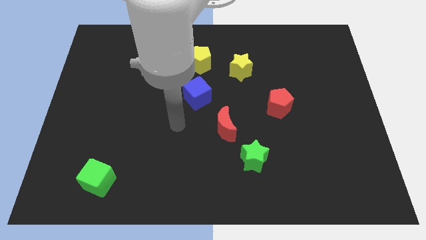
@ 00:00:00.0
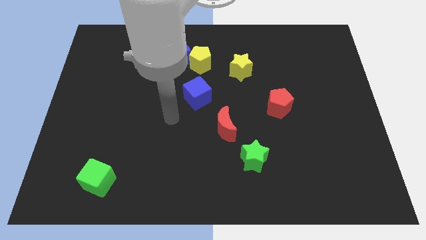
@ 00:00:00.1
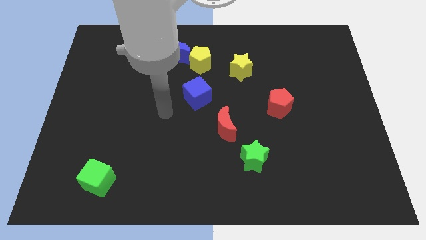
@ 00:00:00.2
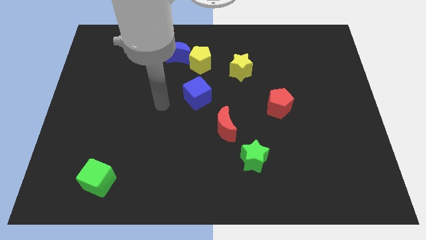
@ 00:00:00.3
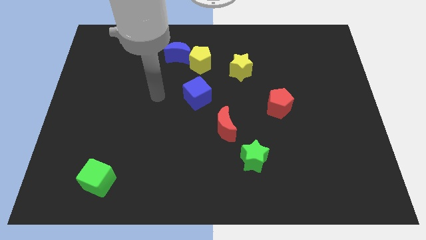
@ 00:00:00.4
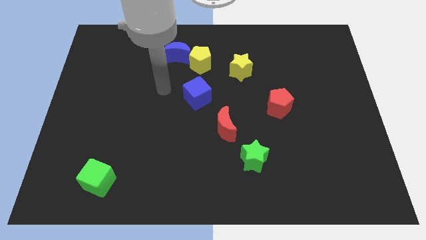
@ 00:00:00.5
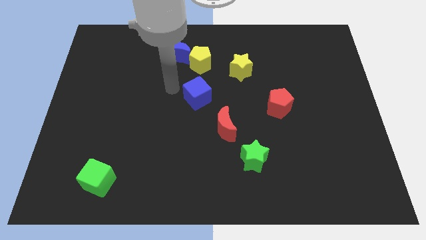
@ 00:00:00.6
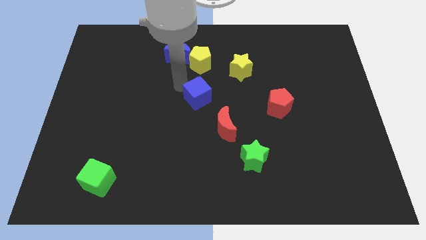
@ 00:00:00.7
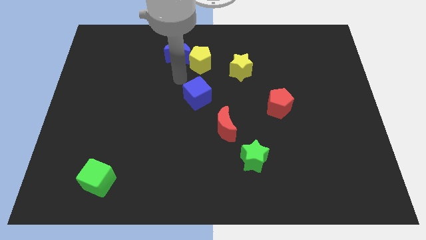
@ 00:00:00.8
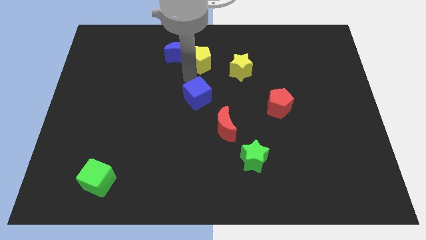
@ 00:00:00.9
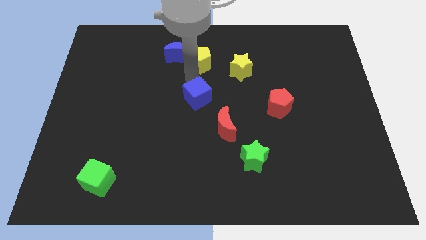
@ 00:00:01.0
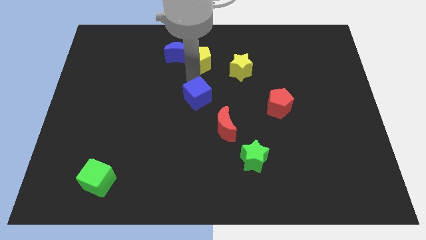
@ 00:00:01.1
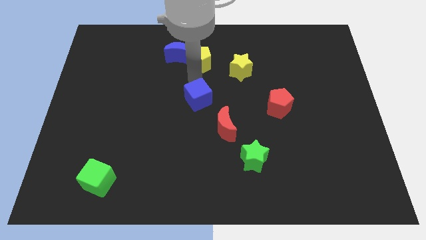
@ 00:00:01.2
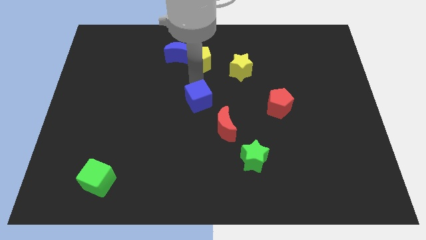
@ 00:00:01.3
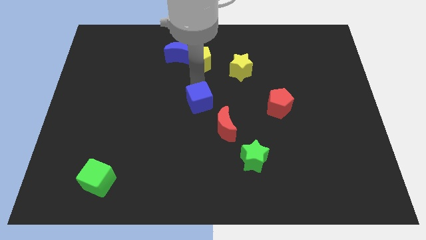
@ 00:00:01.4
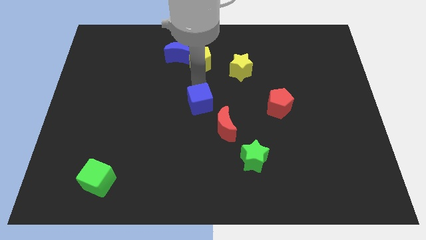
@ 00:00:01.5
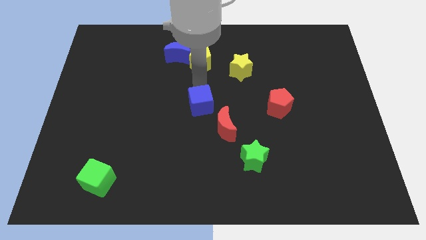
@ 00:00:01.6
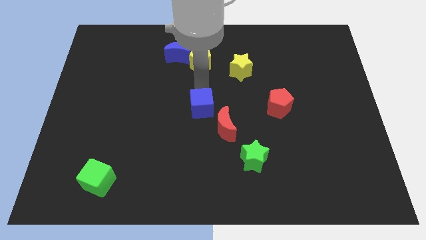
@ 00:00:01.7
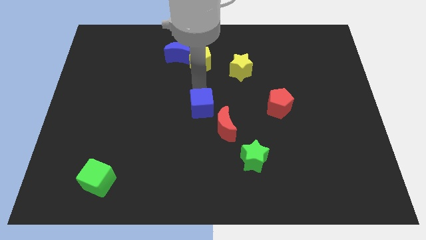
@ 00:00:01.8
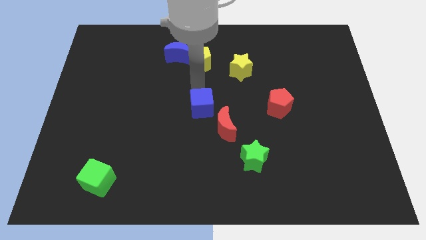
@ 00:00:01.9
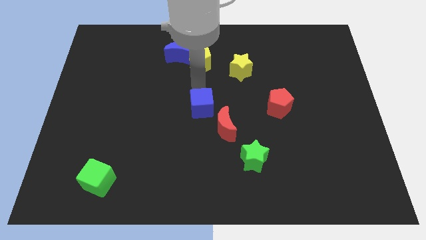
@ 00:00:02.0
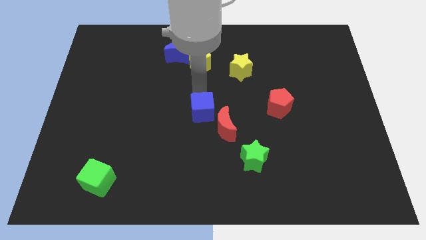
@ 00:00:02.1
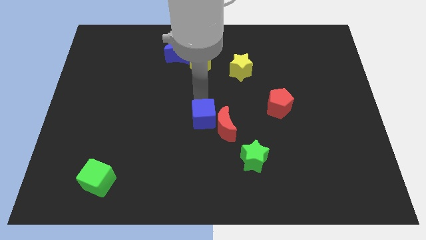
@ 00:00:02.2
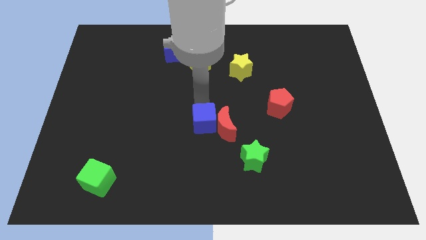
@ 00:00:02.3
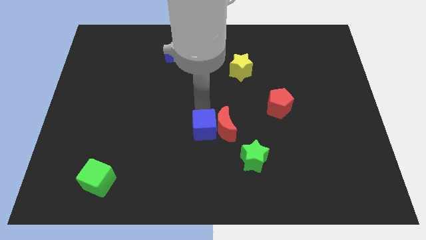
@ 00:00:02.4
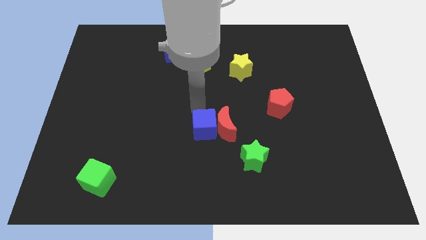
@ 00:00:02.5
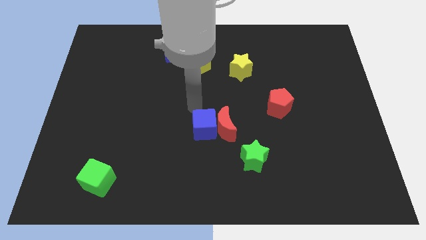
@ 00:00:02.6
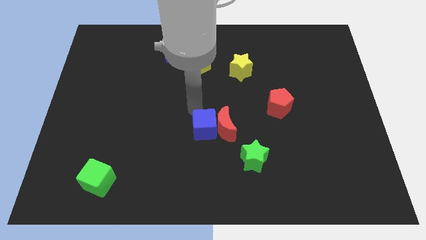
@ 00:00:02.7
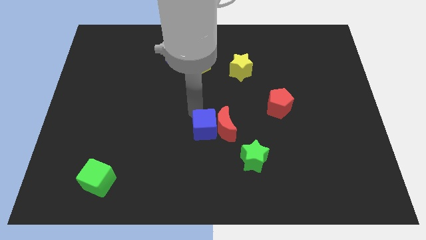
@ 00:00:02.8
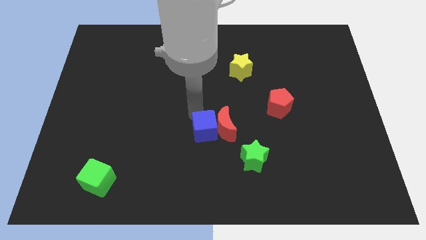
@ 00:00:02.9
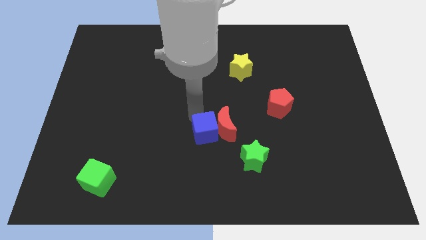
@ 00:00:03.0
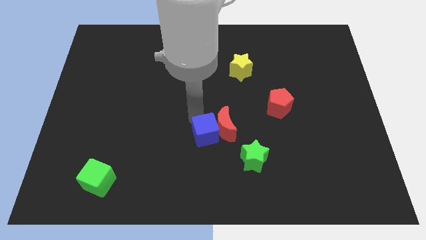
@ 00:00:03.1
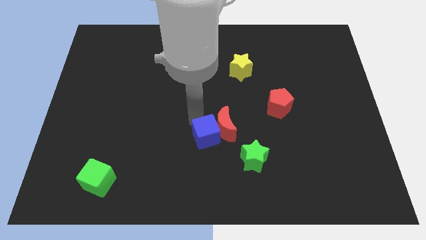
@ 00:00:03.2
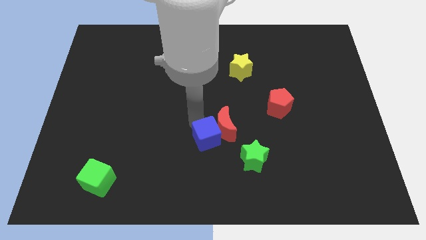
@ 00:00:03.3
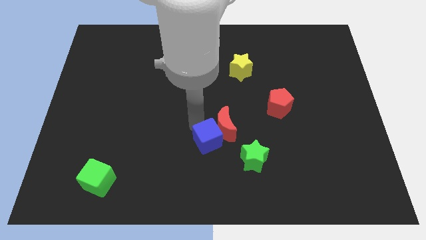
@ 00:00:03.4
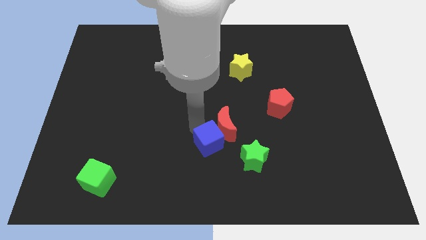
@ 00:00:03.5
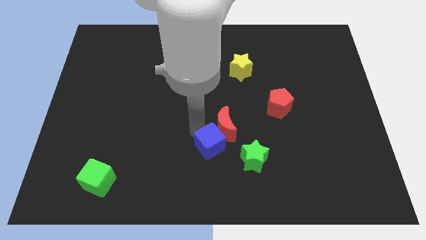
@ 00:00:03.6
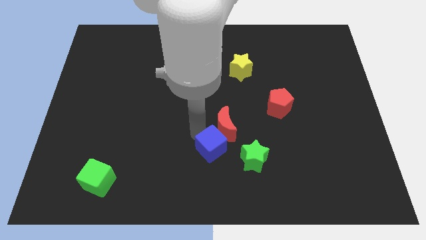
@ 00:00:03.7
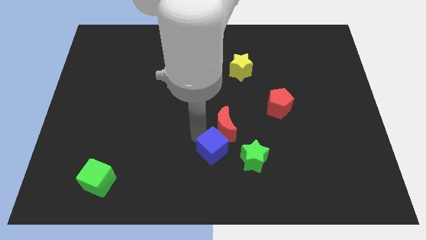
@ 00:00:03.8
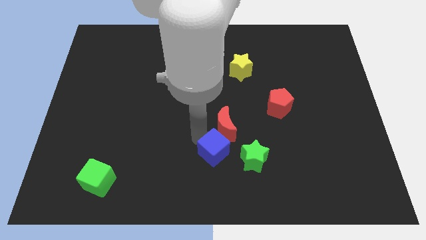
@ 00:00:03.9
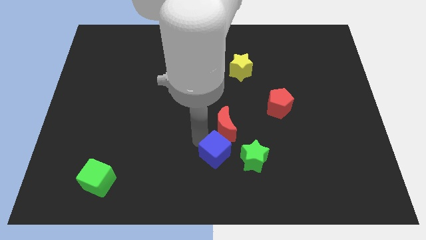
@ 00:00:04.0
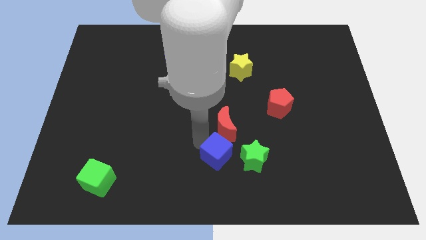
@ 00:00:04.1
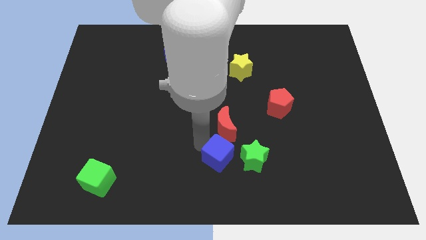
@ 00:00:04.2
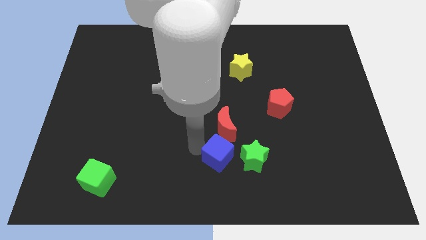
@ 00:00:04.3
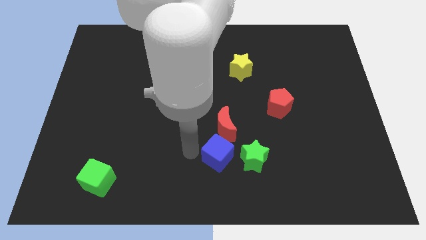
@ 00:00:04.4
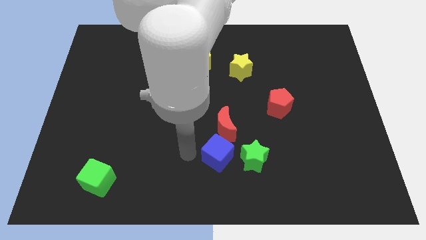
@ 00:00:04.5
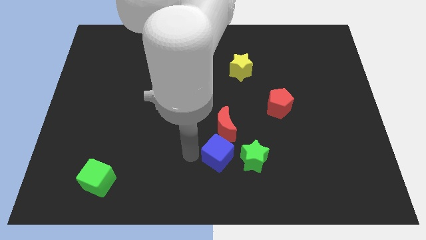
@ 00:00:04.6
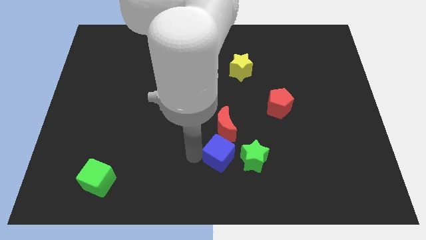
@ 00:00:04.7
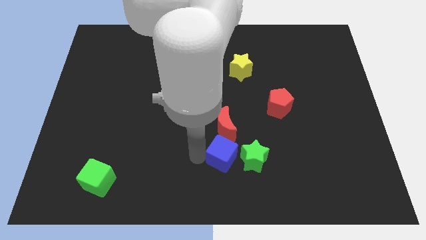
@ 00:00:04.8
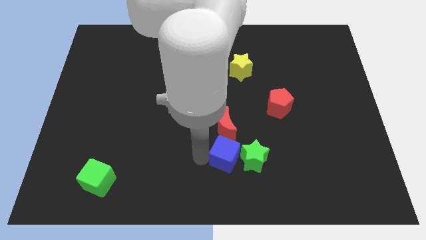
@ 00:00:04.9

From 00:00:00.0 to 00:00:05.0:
move the blue cube next to the green star

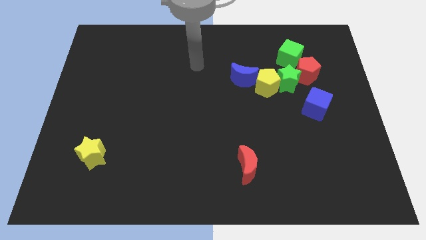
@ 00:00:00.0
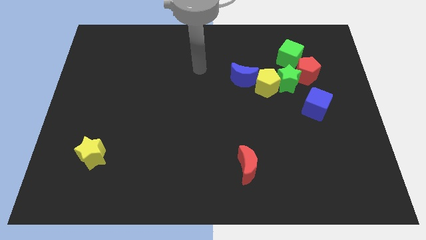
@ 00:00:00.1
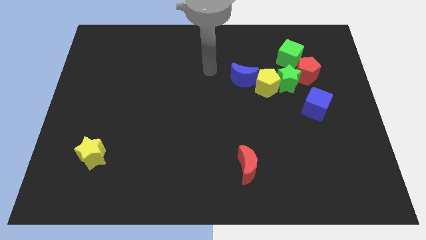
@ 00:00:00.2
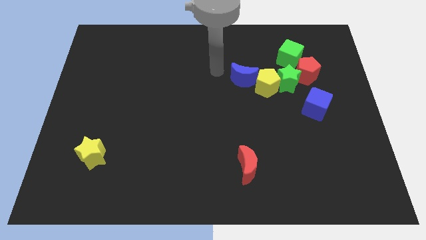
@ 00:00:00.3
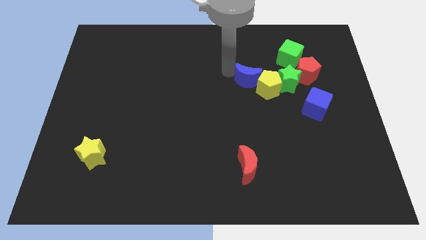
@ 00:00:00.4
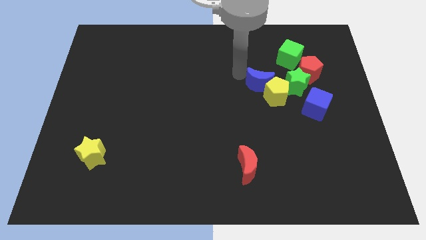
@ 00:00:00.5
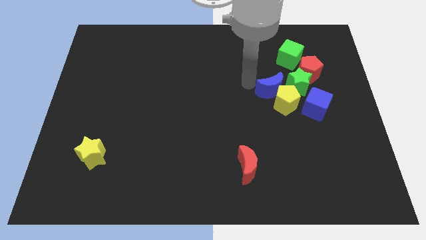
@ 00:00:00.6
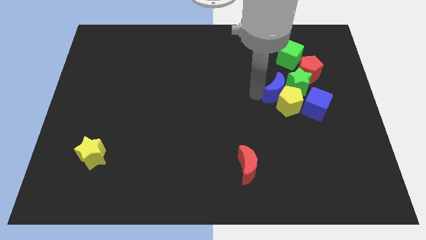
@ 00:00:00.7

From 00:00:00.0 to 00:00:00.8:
push the yellow pentagon next to the blue cube

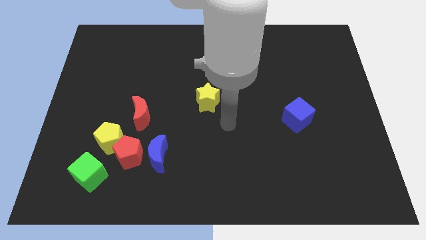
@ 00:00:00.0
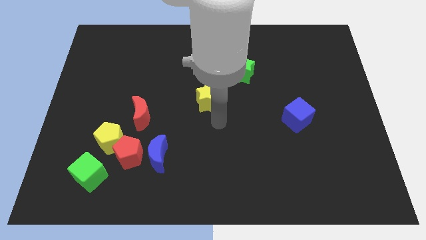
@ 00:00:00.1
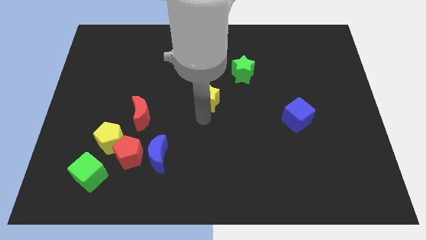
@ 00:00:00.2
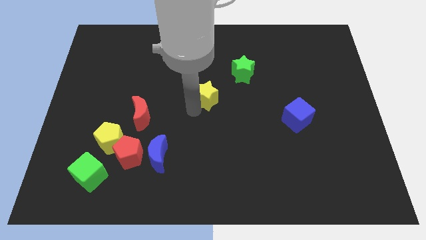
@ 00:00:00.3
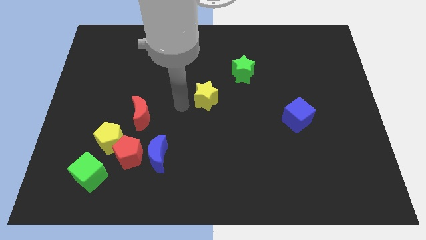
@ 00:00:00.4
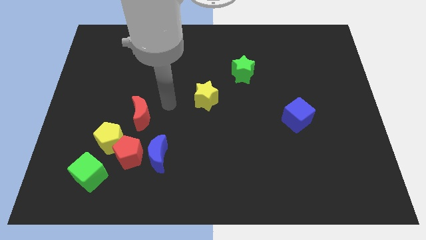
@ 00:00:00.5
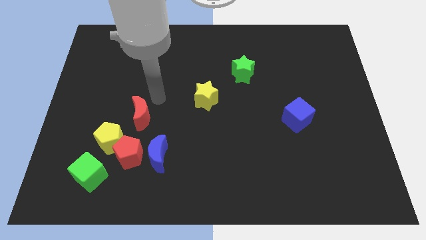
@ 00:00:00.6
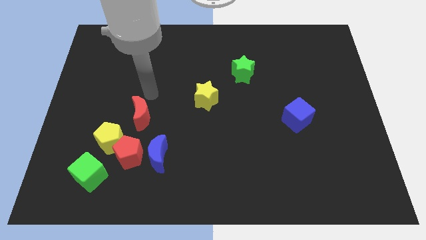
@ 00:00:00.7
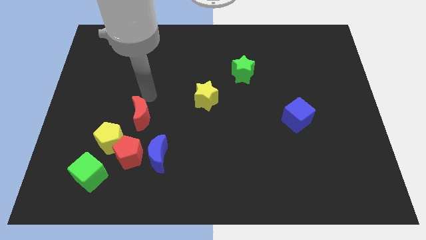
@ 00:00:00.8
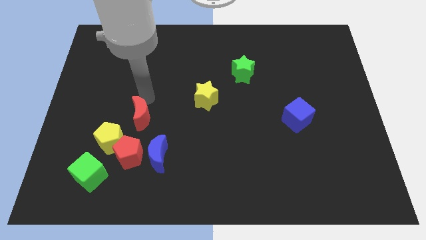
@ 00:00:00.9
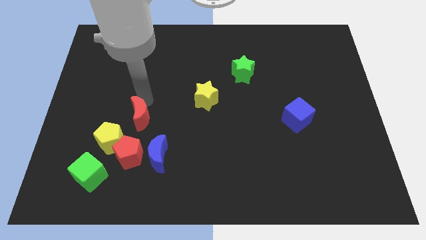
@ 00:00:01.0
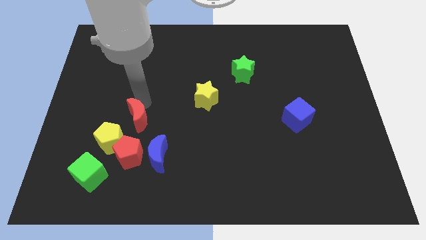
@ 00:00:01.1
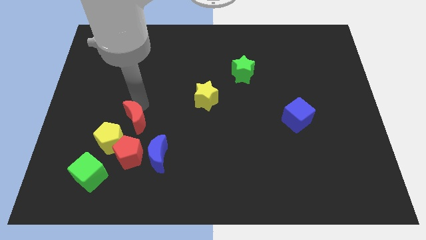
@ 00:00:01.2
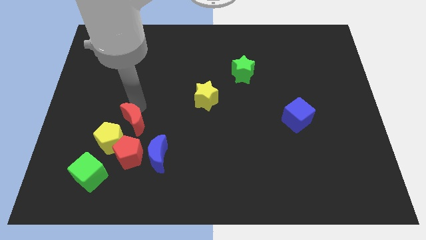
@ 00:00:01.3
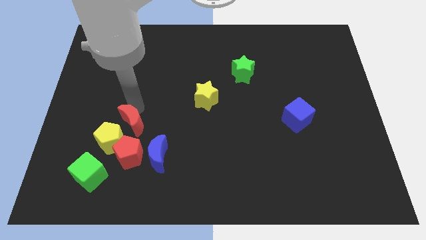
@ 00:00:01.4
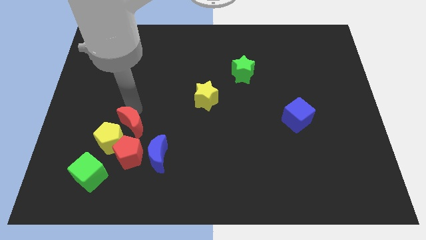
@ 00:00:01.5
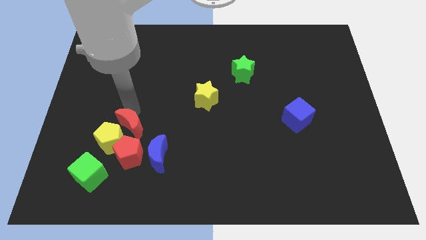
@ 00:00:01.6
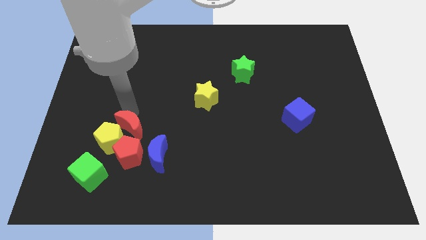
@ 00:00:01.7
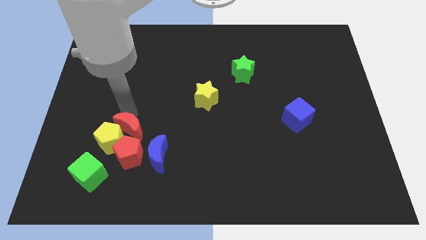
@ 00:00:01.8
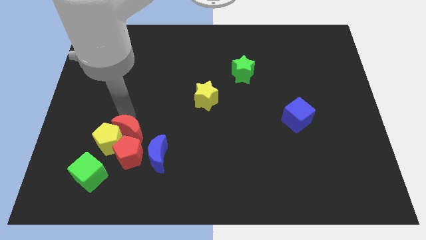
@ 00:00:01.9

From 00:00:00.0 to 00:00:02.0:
move the red moon to the red pentagon
